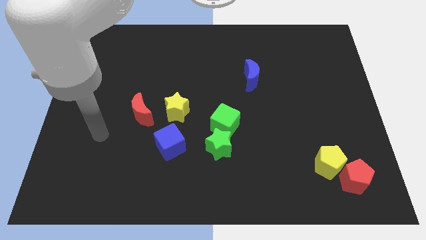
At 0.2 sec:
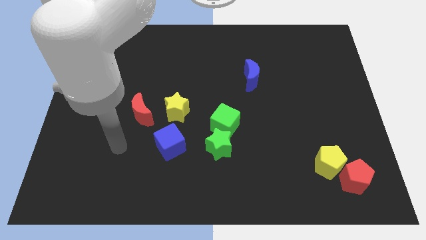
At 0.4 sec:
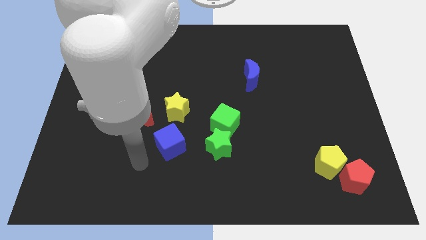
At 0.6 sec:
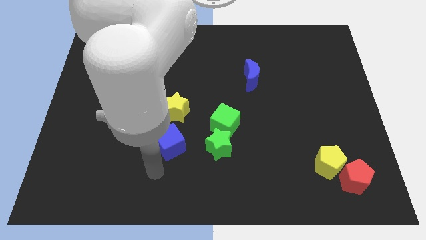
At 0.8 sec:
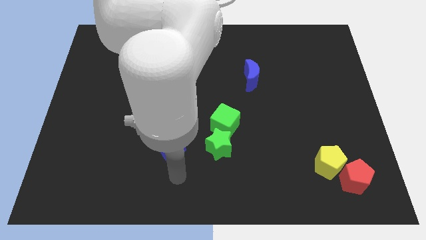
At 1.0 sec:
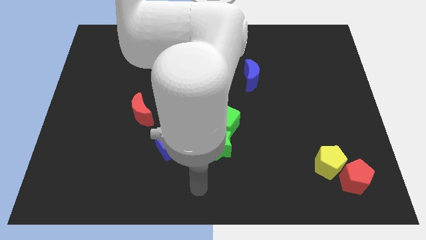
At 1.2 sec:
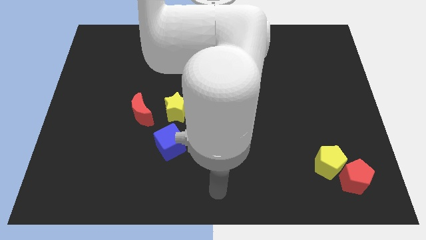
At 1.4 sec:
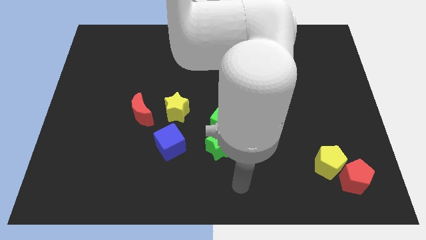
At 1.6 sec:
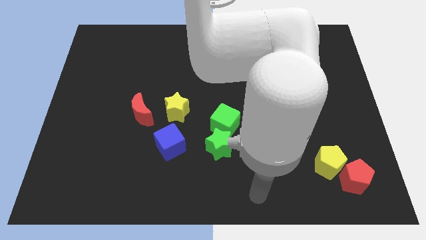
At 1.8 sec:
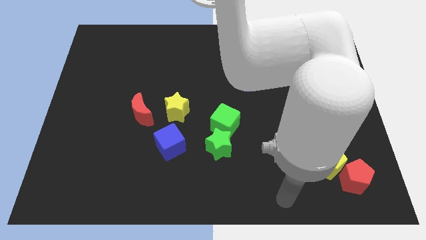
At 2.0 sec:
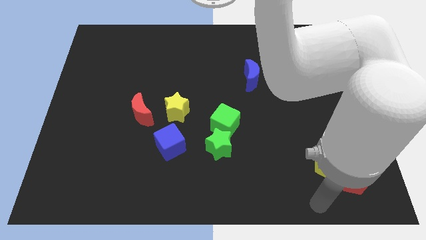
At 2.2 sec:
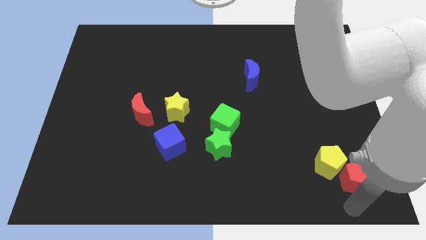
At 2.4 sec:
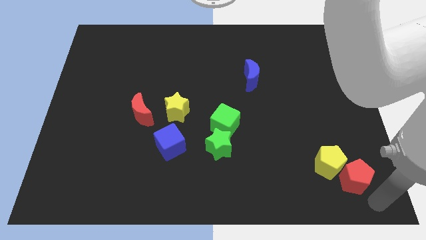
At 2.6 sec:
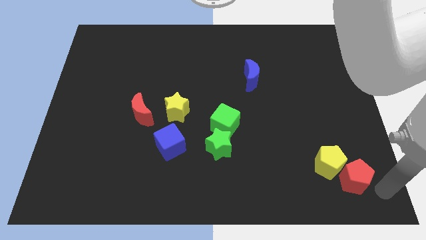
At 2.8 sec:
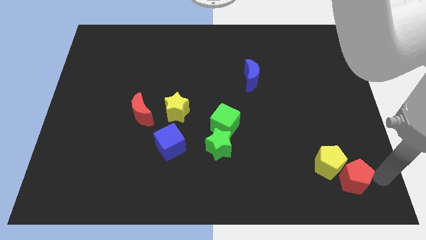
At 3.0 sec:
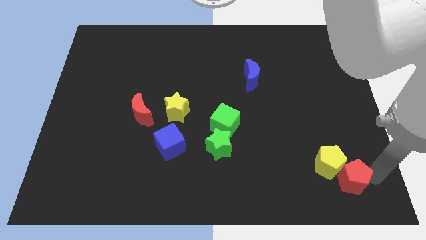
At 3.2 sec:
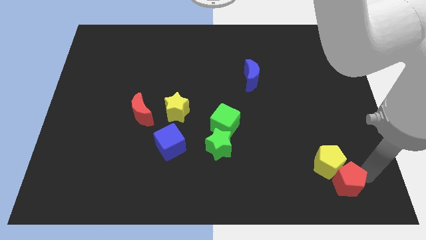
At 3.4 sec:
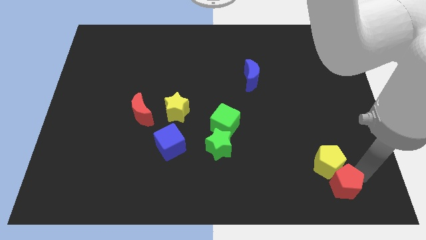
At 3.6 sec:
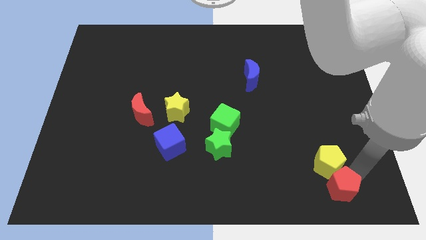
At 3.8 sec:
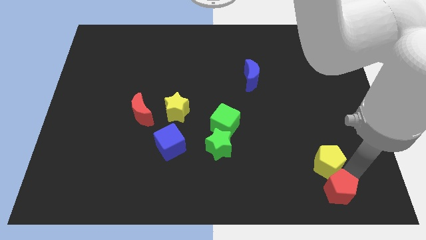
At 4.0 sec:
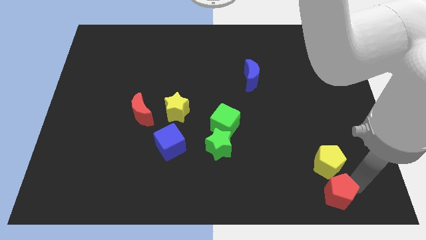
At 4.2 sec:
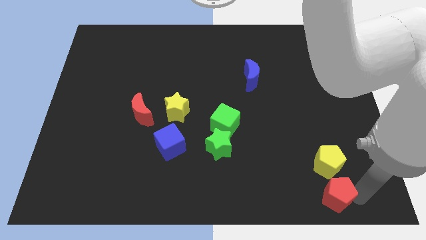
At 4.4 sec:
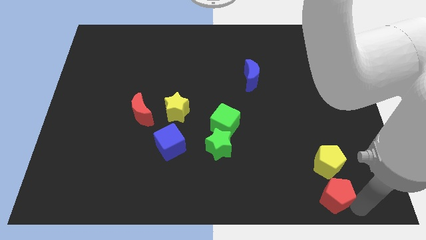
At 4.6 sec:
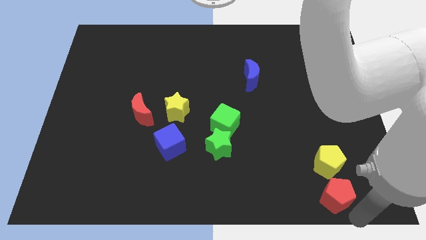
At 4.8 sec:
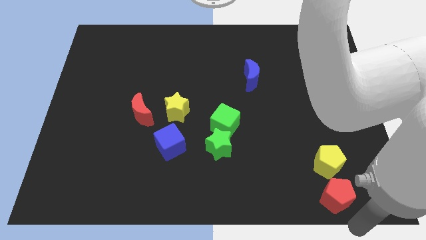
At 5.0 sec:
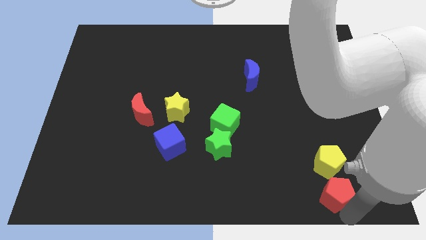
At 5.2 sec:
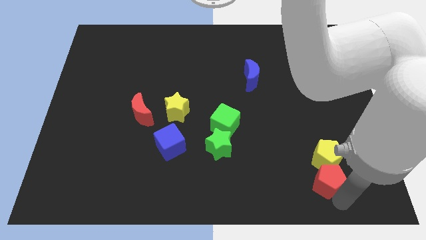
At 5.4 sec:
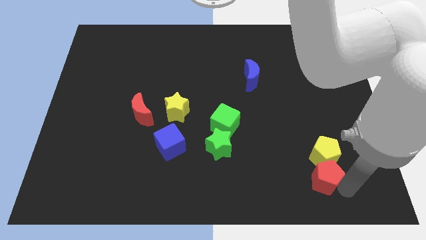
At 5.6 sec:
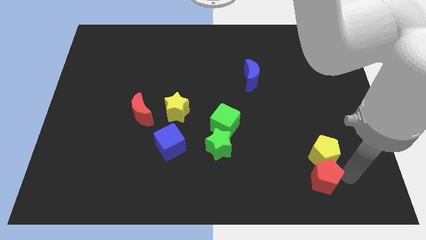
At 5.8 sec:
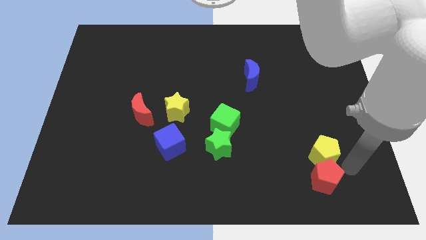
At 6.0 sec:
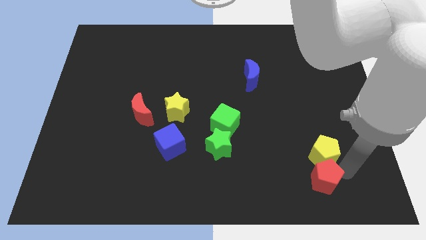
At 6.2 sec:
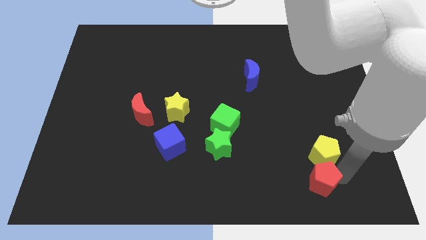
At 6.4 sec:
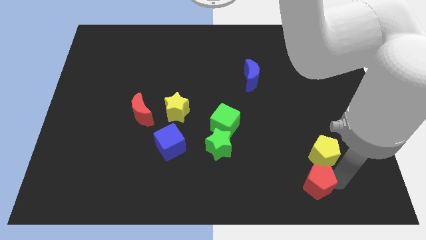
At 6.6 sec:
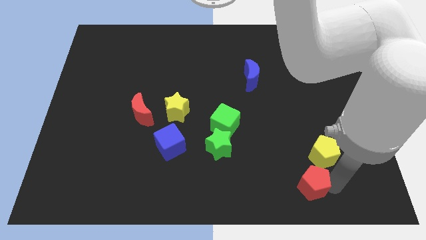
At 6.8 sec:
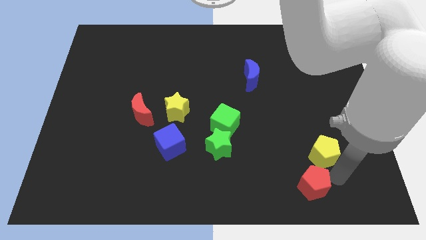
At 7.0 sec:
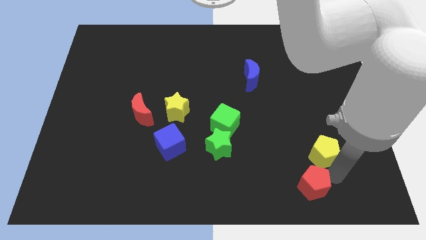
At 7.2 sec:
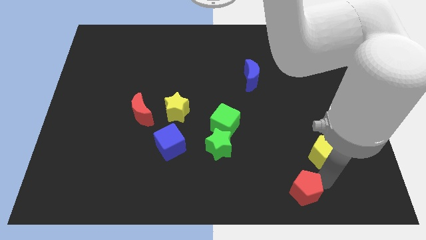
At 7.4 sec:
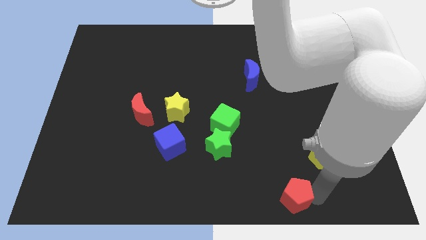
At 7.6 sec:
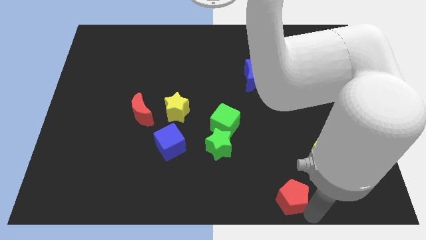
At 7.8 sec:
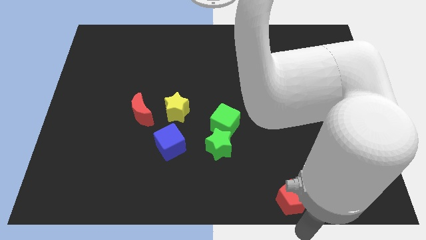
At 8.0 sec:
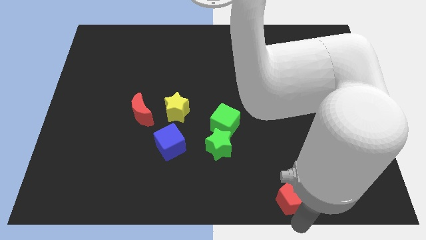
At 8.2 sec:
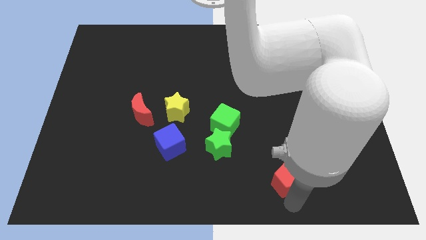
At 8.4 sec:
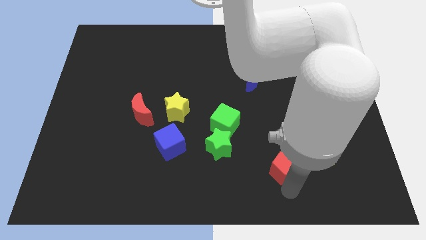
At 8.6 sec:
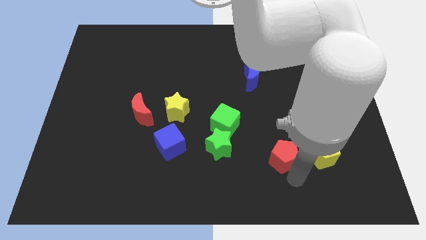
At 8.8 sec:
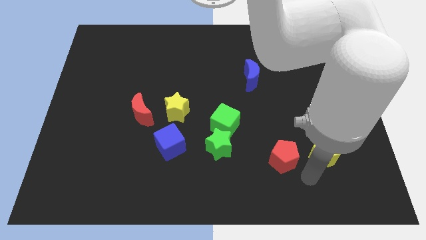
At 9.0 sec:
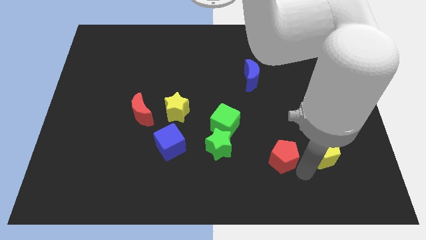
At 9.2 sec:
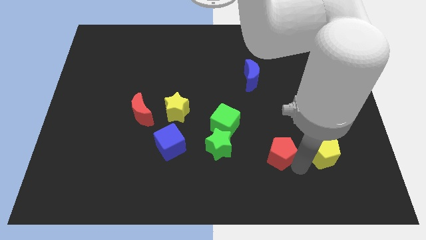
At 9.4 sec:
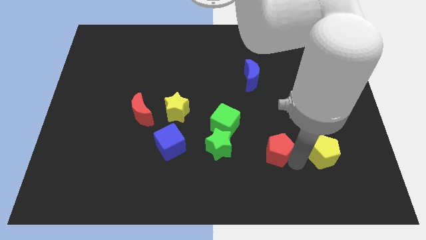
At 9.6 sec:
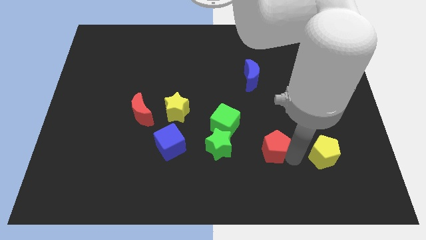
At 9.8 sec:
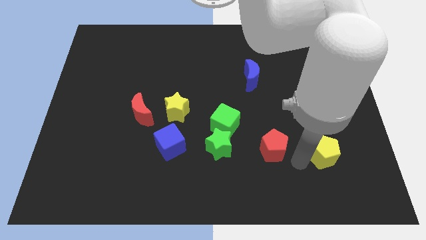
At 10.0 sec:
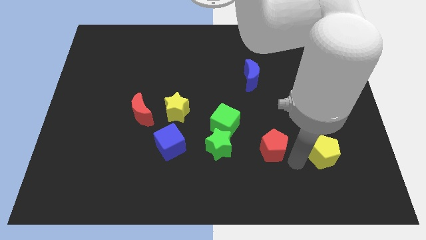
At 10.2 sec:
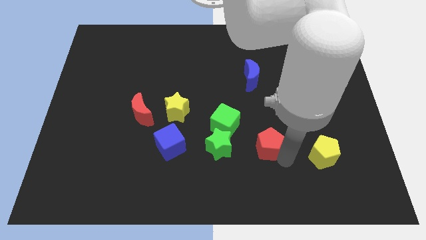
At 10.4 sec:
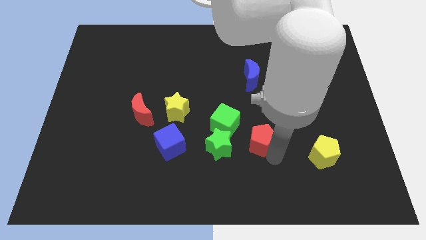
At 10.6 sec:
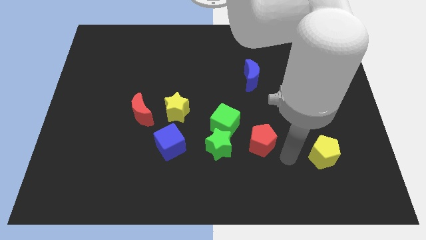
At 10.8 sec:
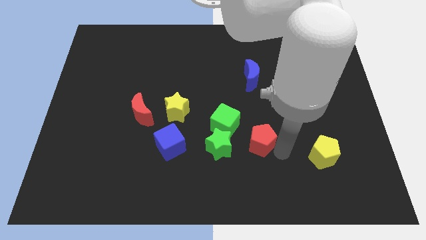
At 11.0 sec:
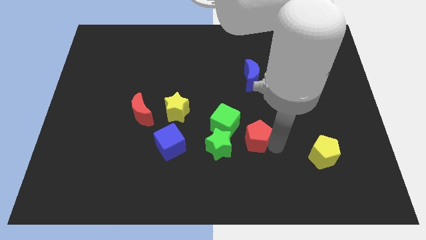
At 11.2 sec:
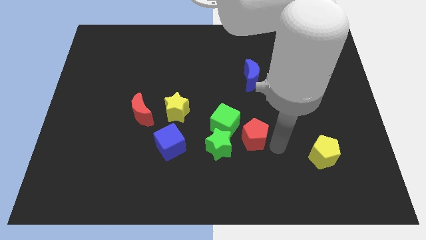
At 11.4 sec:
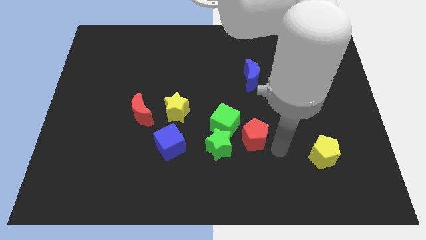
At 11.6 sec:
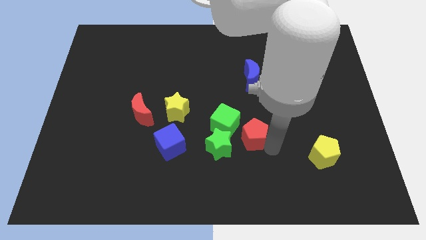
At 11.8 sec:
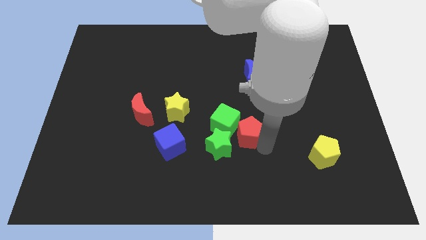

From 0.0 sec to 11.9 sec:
slide the red pentagon to the green cube

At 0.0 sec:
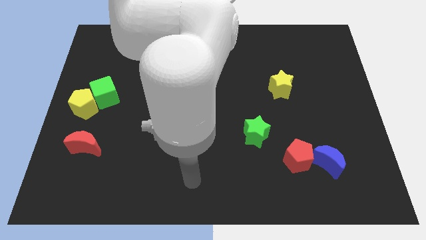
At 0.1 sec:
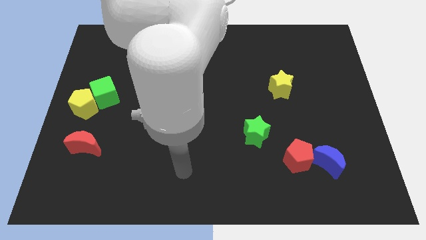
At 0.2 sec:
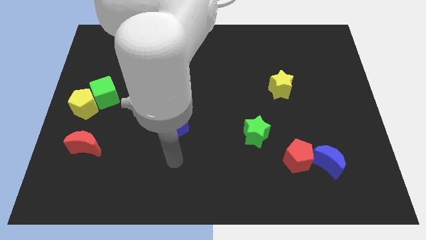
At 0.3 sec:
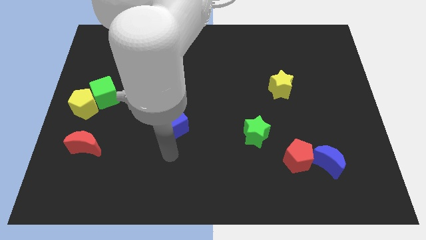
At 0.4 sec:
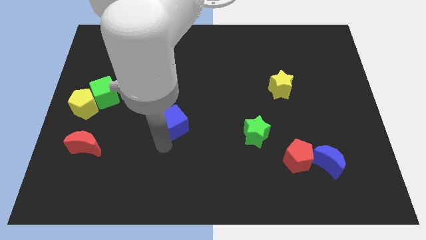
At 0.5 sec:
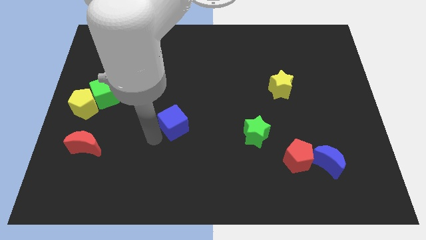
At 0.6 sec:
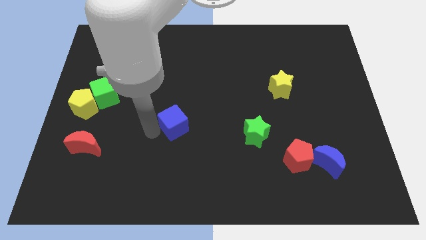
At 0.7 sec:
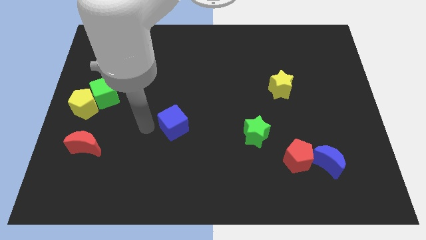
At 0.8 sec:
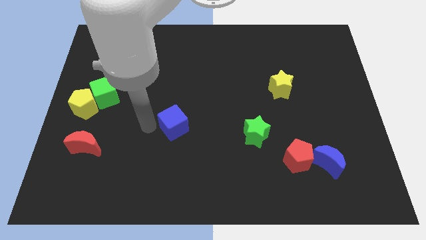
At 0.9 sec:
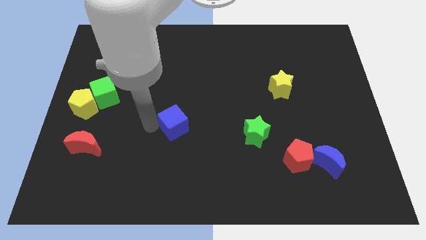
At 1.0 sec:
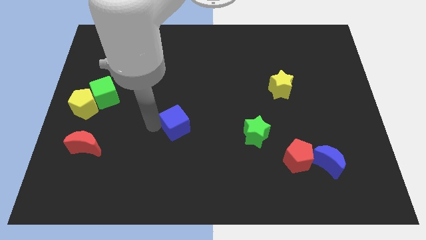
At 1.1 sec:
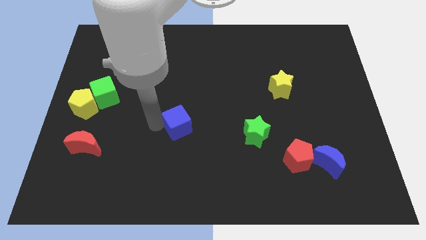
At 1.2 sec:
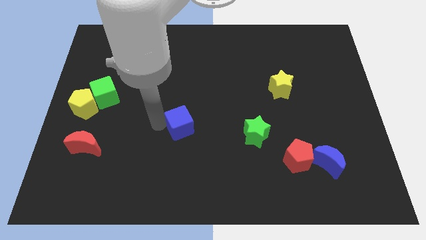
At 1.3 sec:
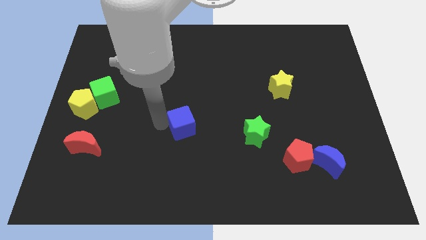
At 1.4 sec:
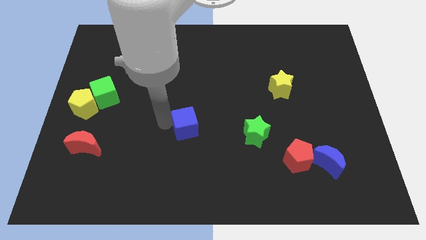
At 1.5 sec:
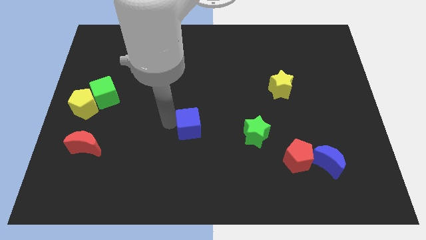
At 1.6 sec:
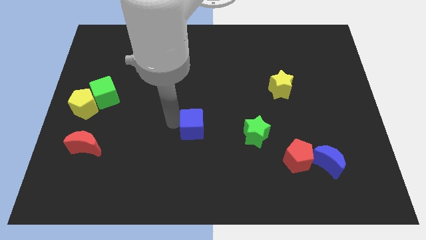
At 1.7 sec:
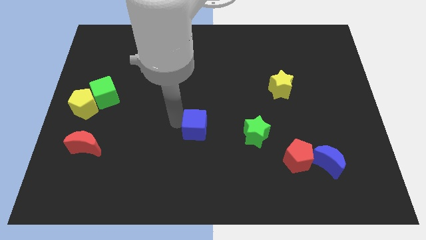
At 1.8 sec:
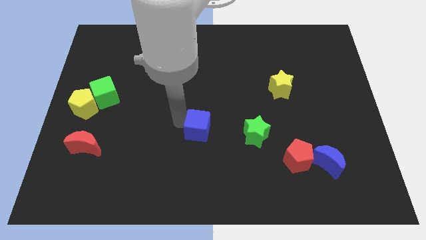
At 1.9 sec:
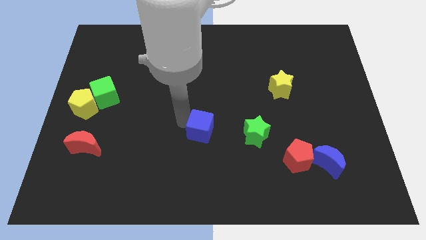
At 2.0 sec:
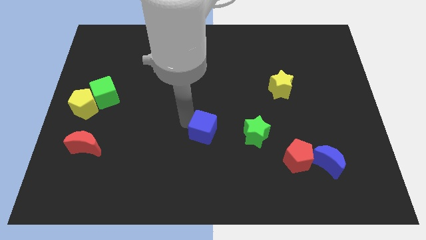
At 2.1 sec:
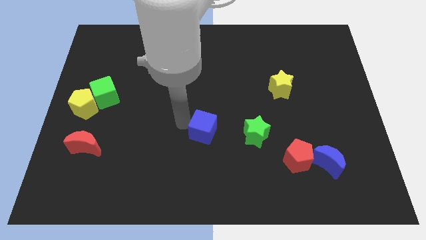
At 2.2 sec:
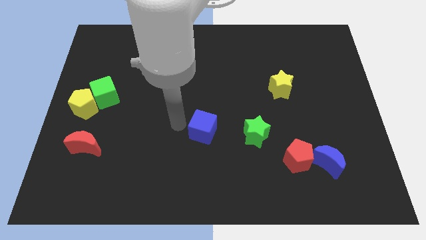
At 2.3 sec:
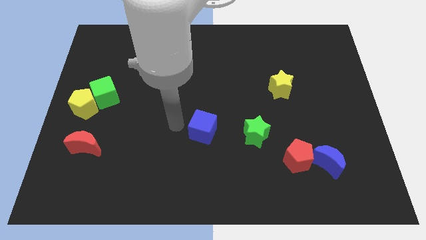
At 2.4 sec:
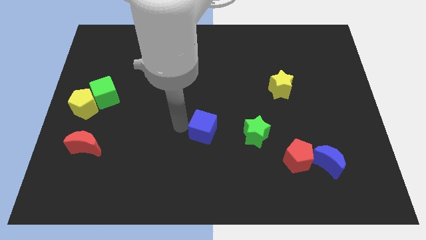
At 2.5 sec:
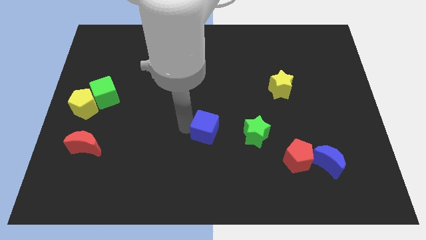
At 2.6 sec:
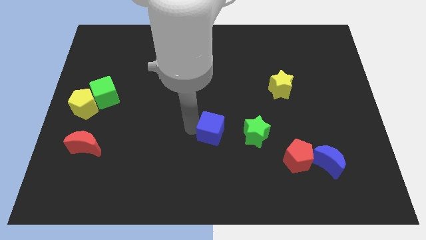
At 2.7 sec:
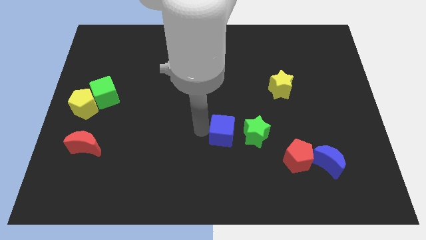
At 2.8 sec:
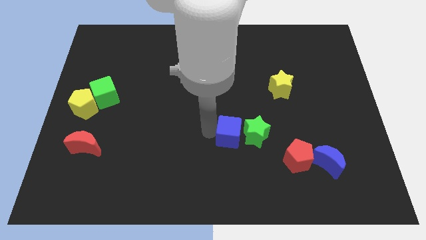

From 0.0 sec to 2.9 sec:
move the blue cube to the green star
